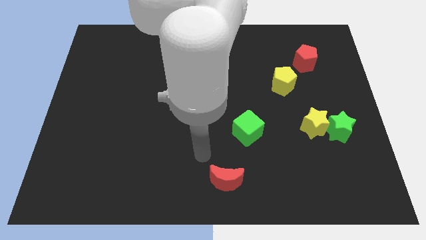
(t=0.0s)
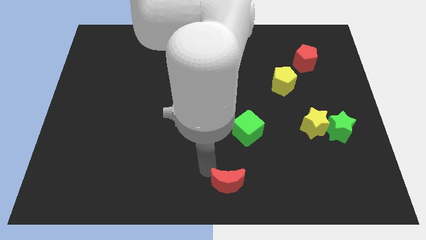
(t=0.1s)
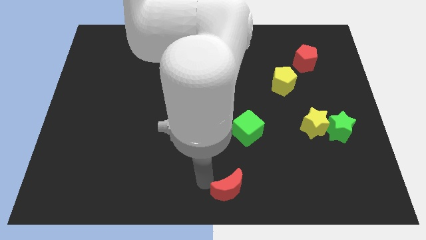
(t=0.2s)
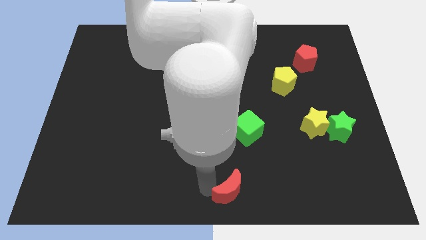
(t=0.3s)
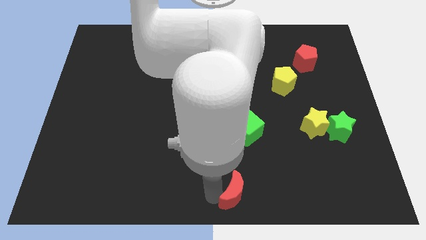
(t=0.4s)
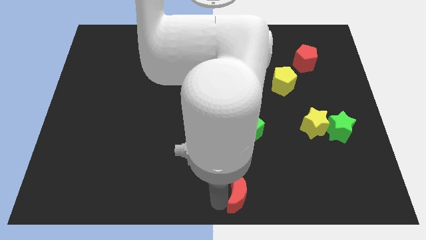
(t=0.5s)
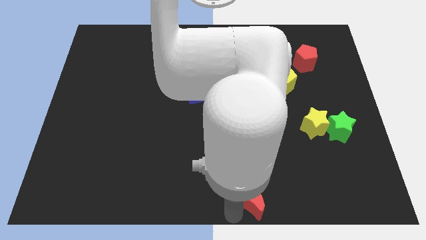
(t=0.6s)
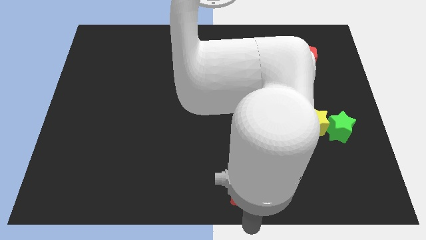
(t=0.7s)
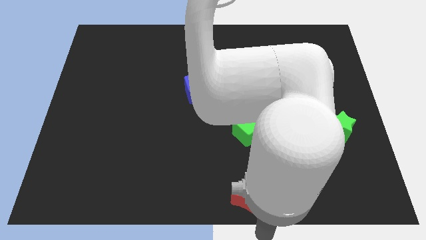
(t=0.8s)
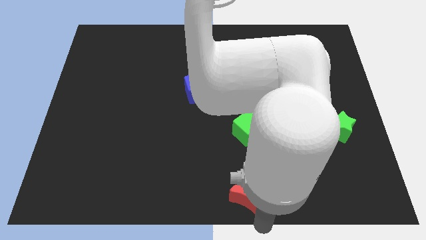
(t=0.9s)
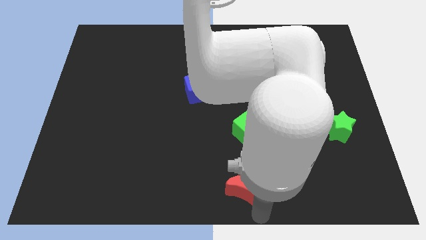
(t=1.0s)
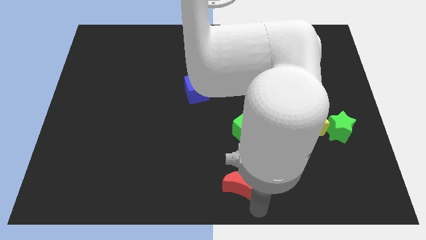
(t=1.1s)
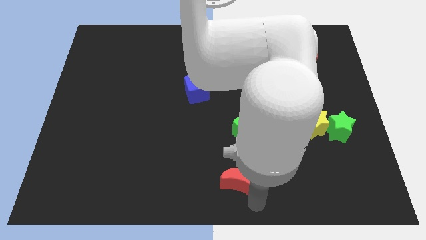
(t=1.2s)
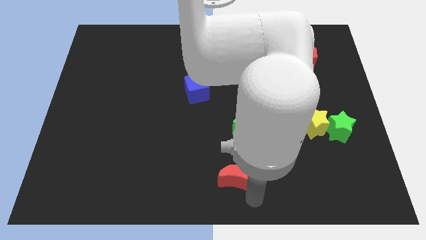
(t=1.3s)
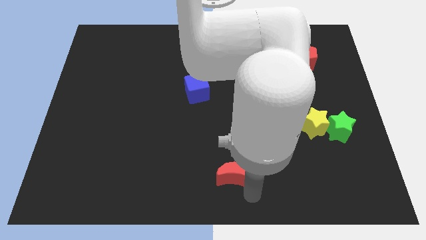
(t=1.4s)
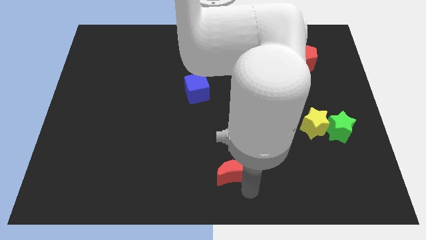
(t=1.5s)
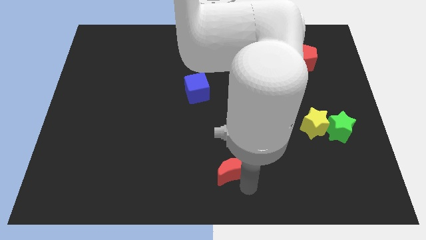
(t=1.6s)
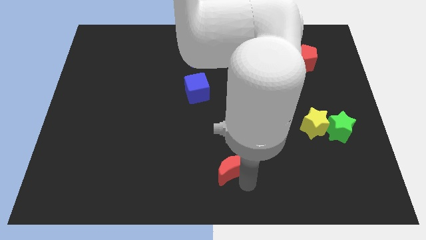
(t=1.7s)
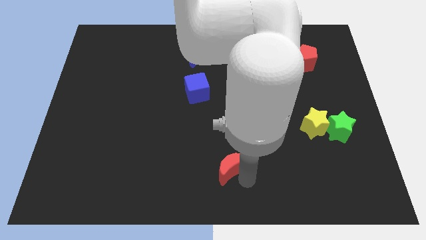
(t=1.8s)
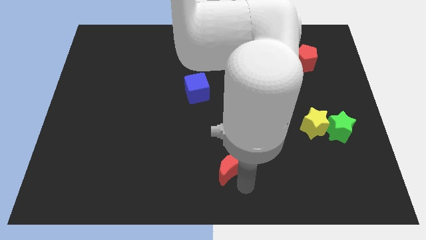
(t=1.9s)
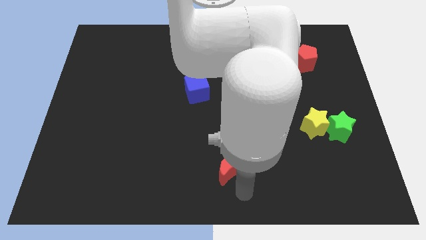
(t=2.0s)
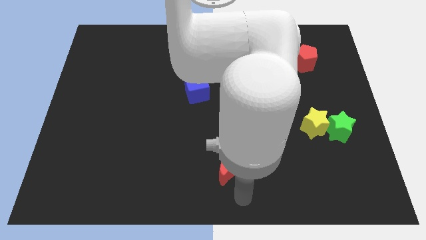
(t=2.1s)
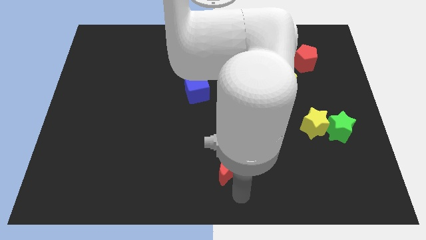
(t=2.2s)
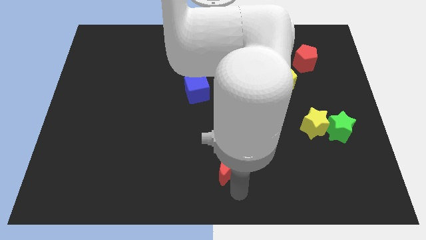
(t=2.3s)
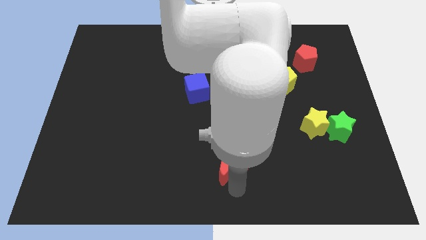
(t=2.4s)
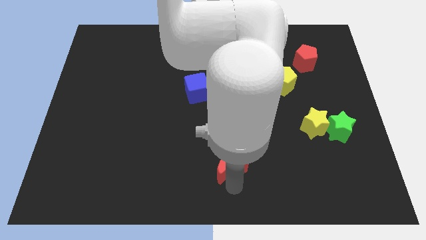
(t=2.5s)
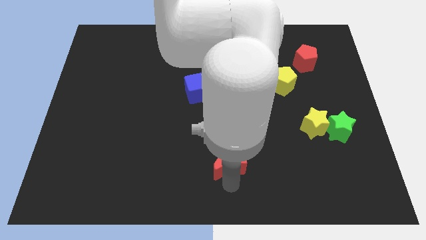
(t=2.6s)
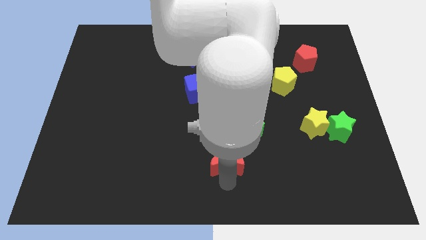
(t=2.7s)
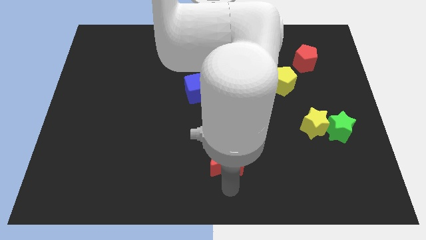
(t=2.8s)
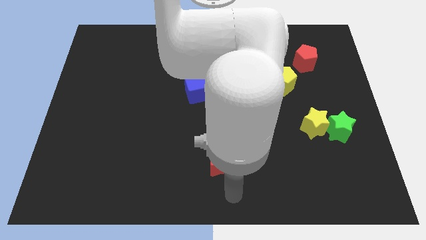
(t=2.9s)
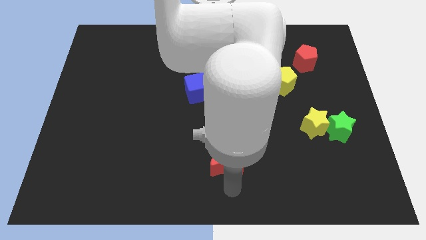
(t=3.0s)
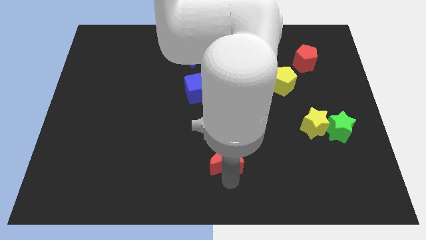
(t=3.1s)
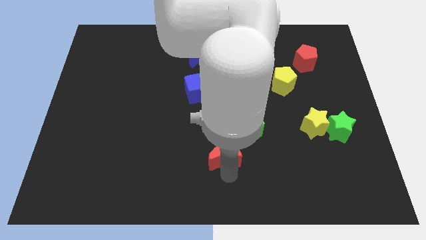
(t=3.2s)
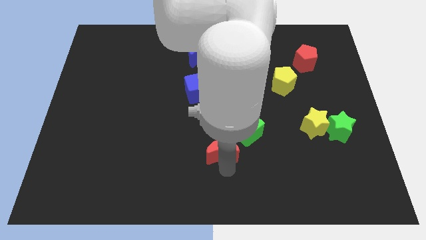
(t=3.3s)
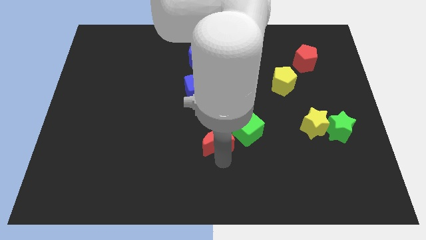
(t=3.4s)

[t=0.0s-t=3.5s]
slightly slide the red moon upwards

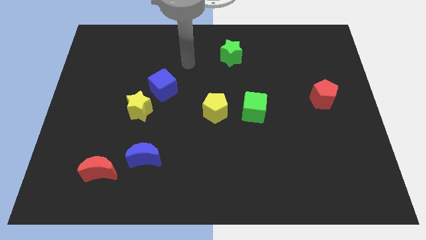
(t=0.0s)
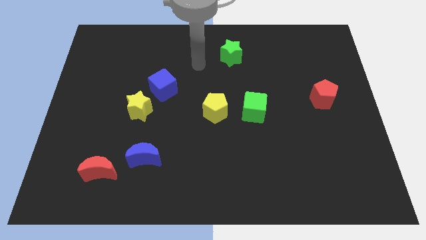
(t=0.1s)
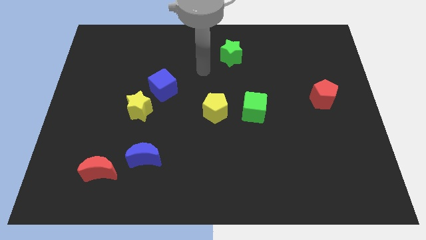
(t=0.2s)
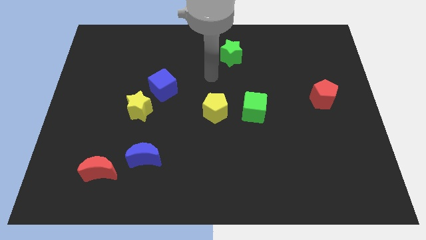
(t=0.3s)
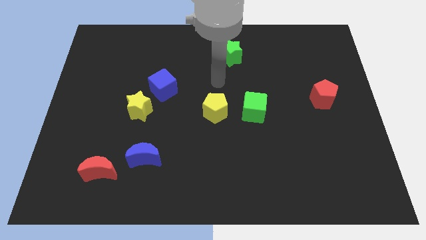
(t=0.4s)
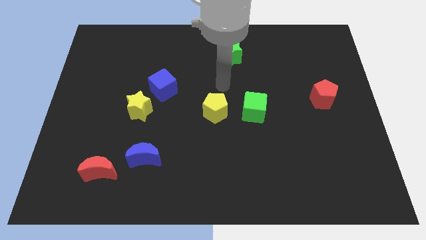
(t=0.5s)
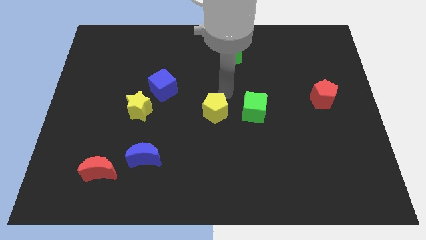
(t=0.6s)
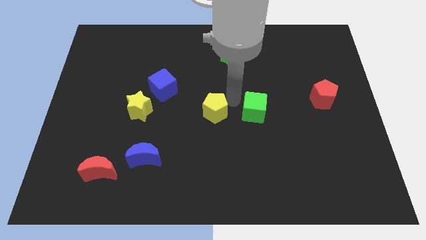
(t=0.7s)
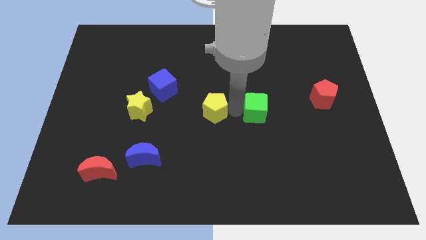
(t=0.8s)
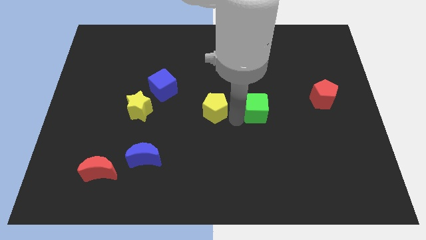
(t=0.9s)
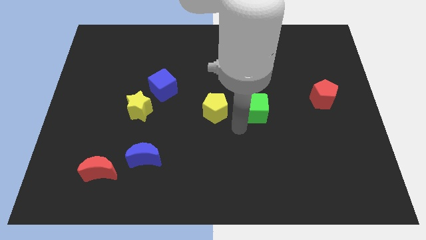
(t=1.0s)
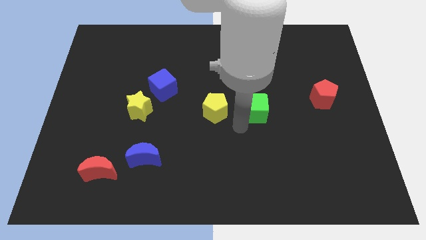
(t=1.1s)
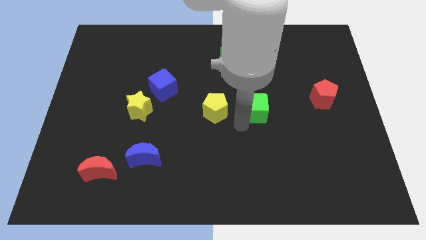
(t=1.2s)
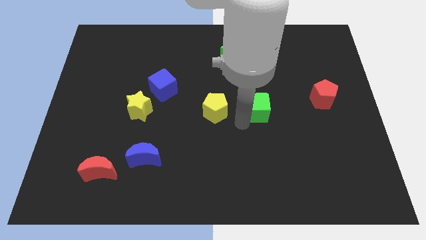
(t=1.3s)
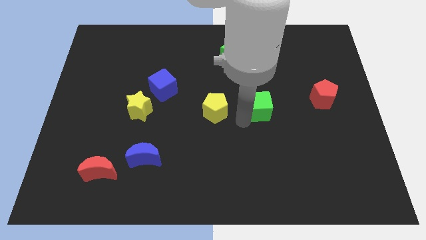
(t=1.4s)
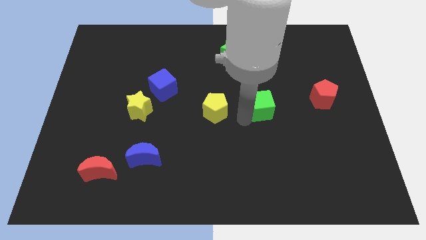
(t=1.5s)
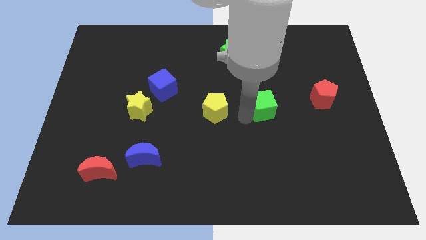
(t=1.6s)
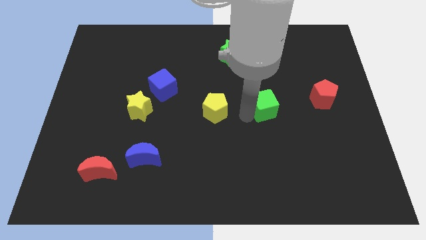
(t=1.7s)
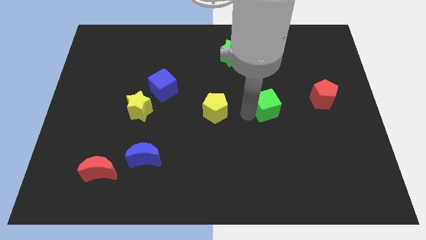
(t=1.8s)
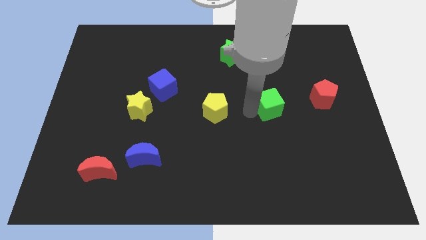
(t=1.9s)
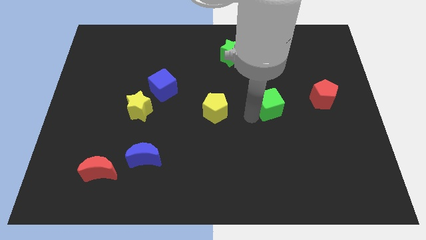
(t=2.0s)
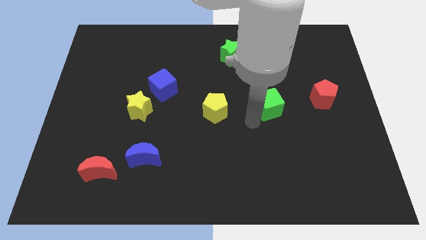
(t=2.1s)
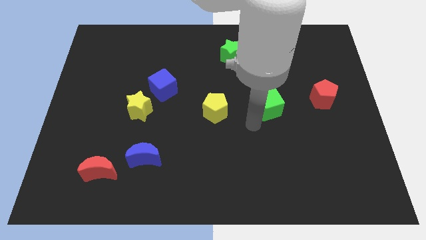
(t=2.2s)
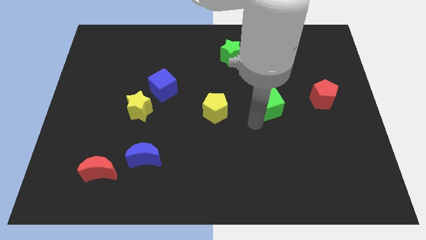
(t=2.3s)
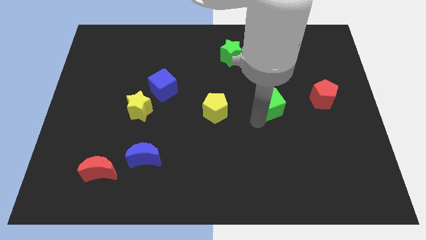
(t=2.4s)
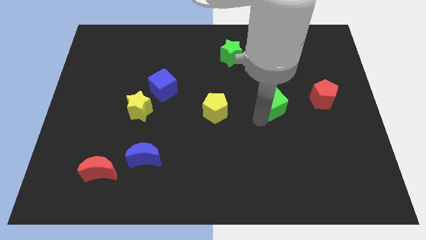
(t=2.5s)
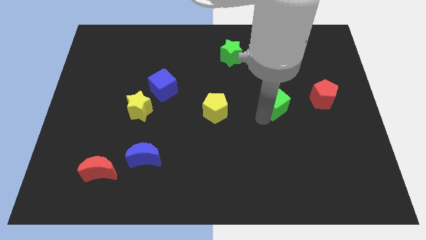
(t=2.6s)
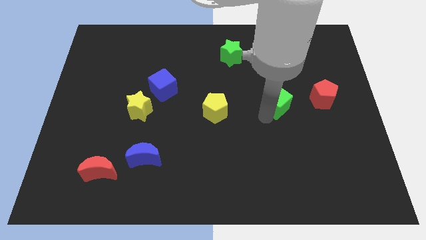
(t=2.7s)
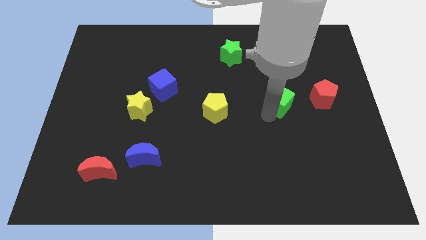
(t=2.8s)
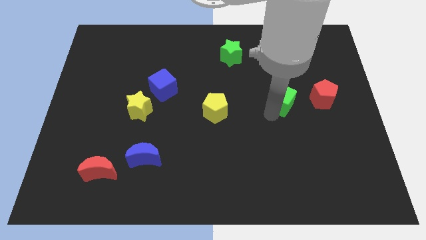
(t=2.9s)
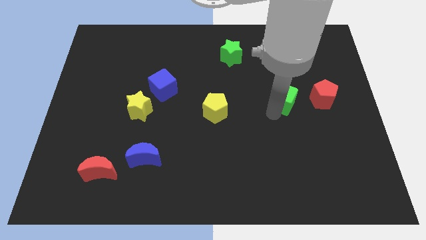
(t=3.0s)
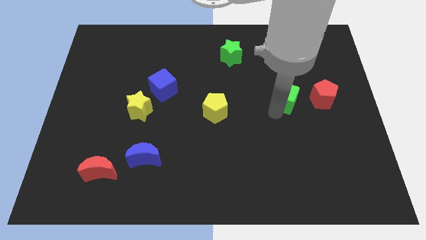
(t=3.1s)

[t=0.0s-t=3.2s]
move the green cube somewhat upwards and right

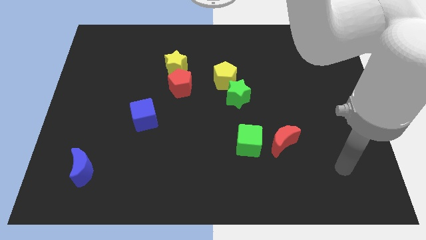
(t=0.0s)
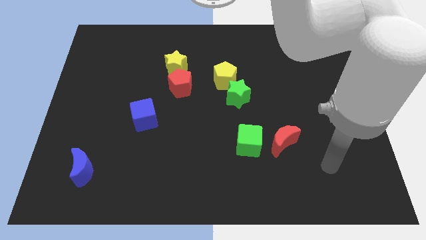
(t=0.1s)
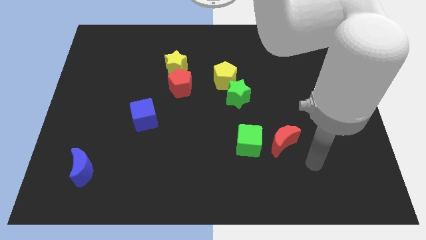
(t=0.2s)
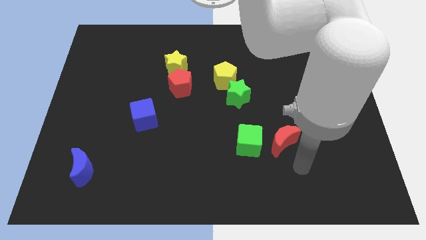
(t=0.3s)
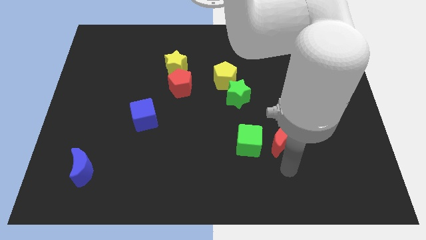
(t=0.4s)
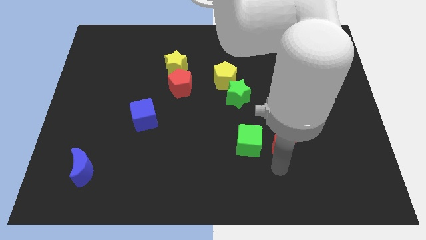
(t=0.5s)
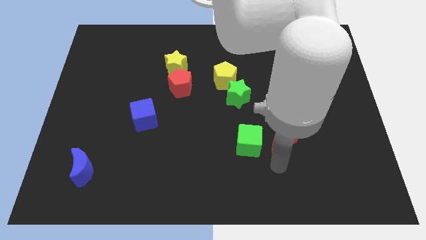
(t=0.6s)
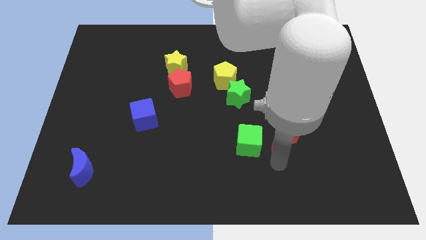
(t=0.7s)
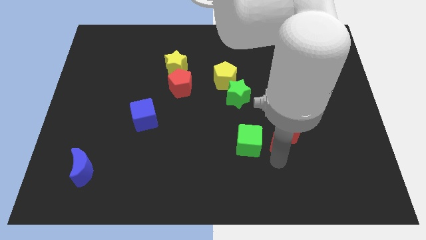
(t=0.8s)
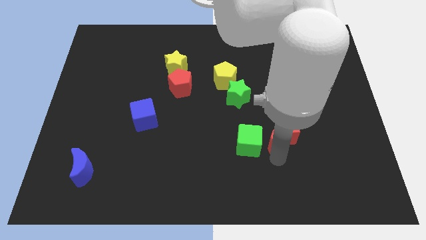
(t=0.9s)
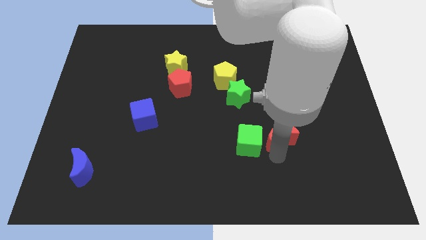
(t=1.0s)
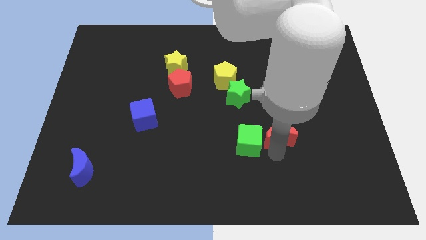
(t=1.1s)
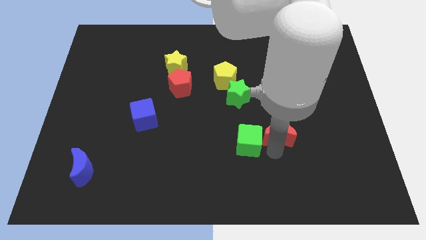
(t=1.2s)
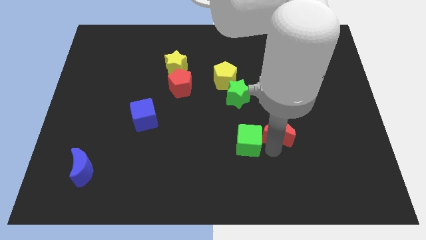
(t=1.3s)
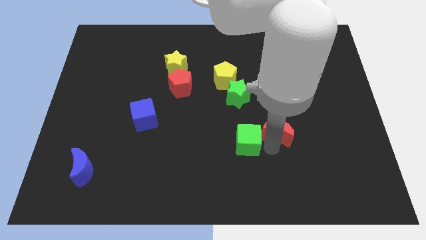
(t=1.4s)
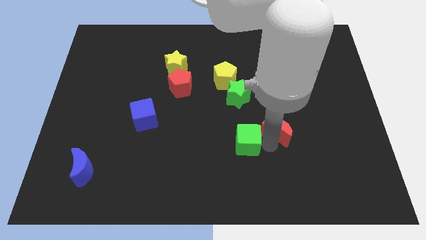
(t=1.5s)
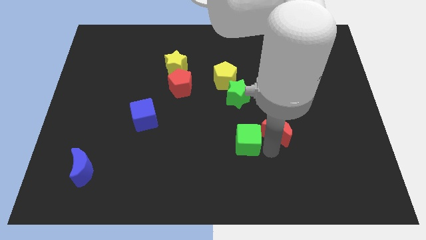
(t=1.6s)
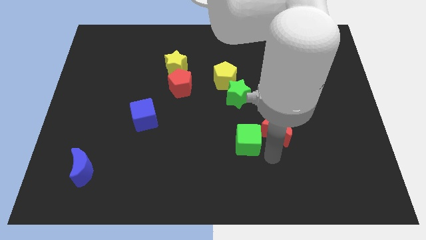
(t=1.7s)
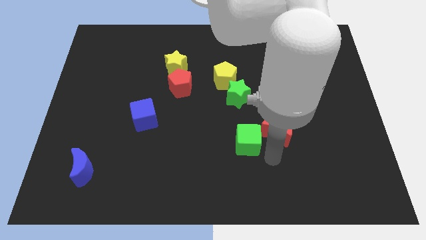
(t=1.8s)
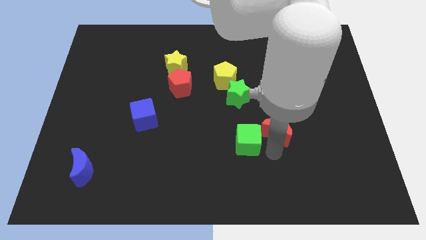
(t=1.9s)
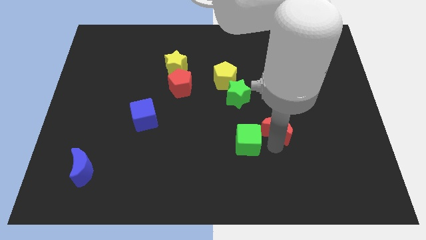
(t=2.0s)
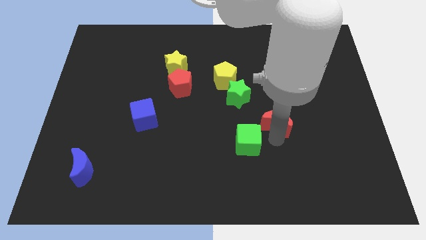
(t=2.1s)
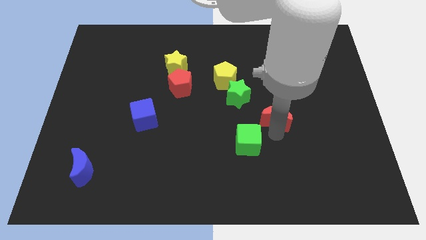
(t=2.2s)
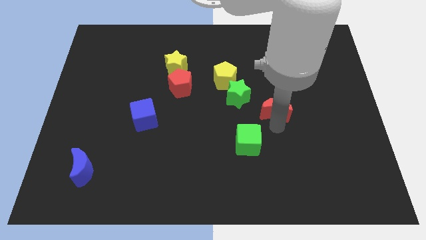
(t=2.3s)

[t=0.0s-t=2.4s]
slightly push the red moon upwards
